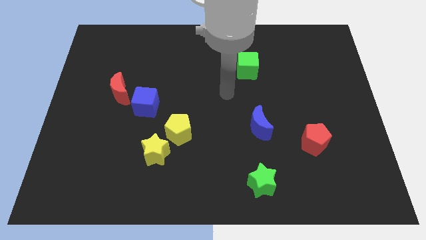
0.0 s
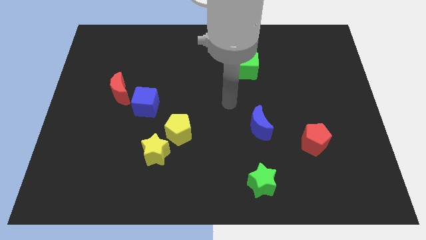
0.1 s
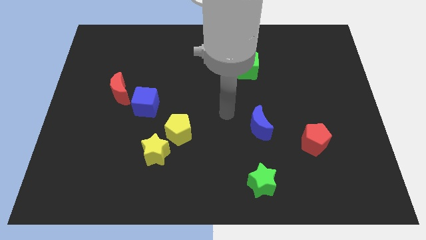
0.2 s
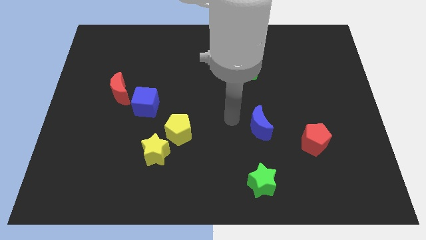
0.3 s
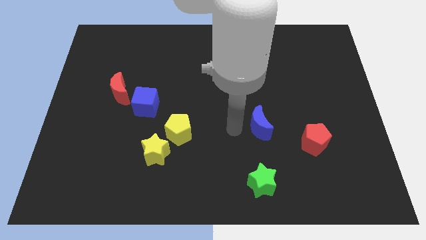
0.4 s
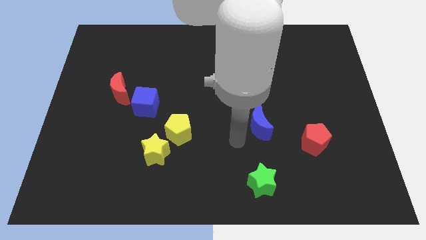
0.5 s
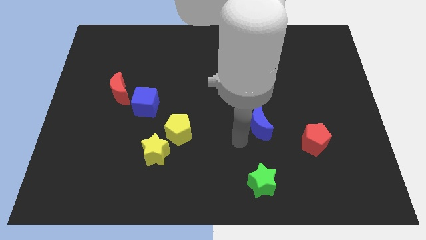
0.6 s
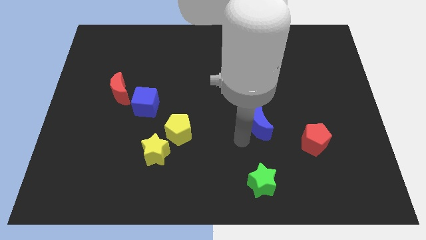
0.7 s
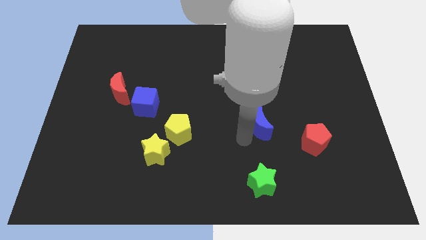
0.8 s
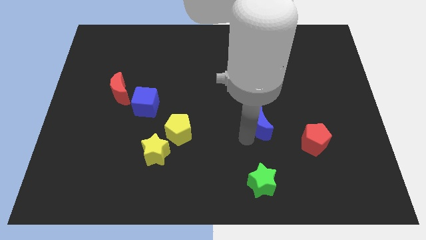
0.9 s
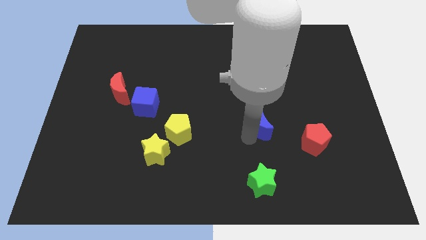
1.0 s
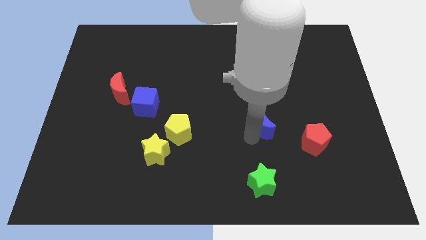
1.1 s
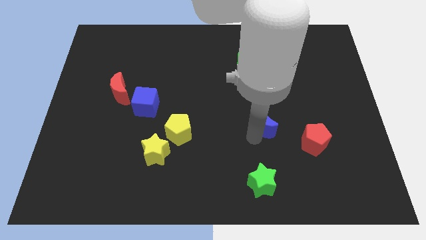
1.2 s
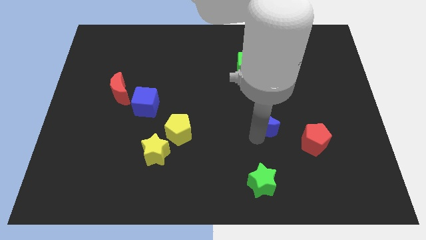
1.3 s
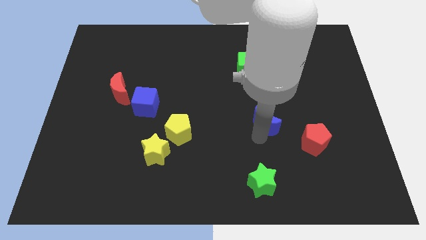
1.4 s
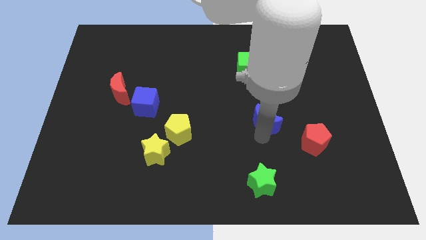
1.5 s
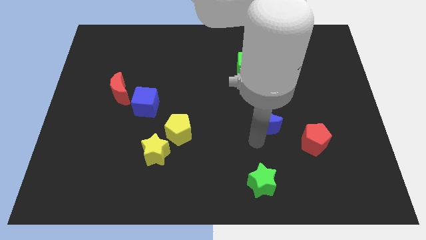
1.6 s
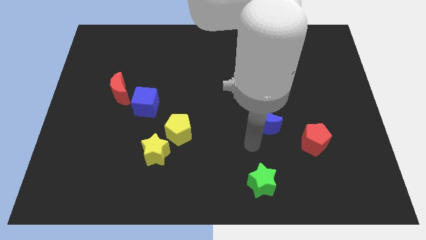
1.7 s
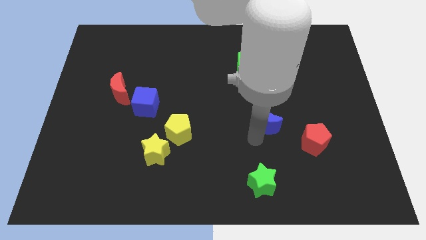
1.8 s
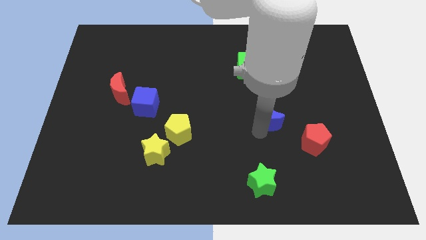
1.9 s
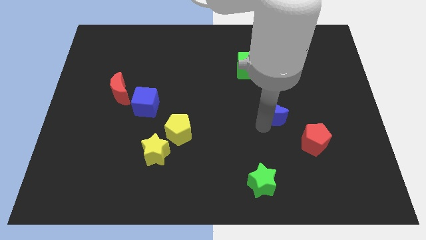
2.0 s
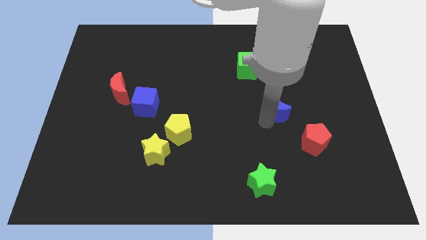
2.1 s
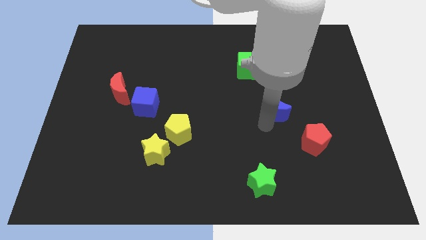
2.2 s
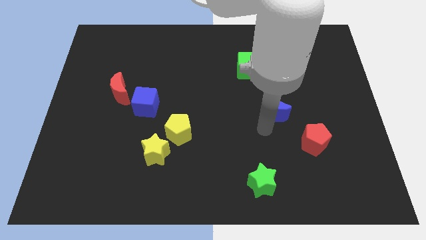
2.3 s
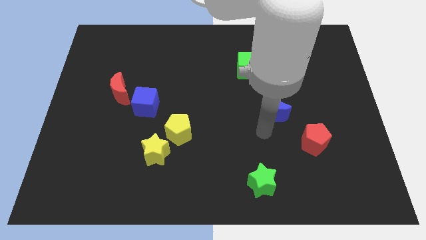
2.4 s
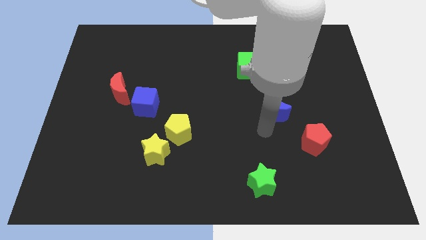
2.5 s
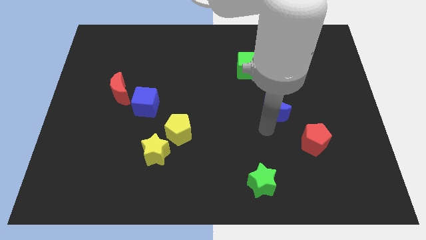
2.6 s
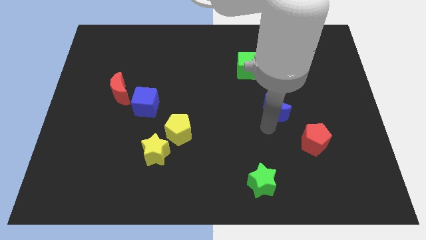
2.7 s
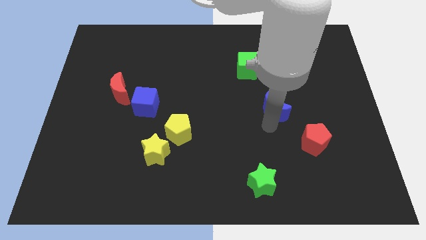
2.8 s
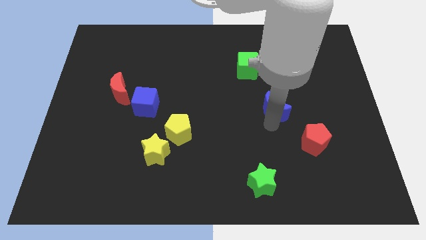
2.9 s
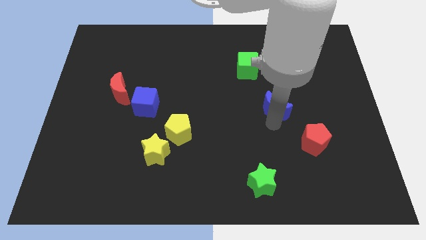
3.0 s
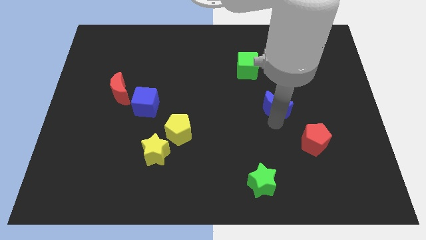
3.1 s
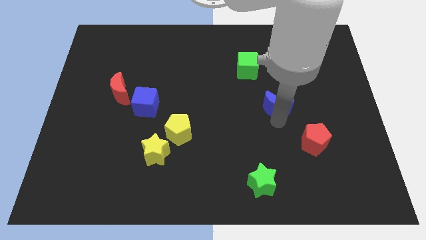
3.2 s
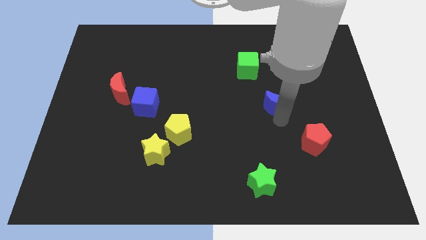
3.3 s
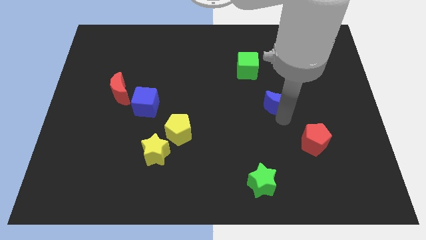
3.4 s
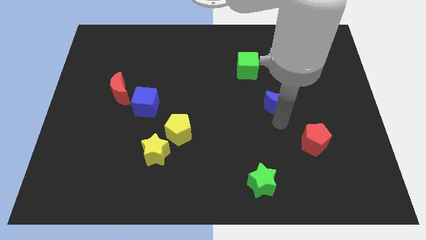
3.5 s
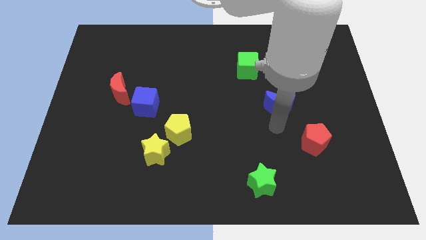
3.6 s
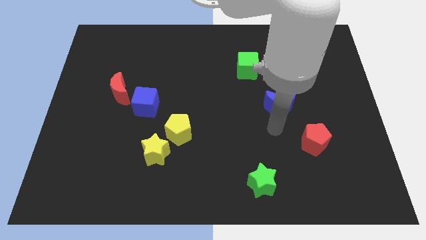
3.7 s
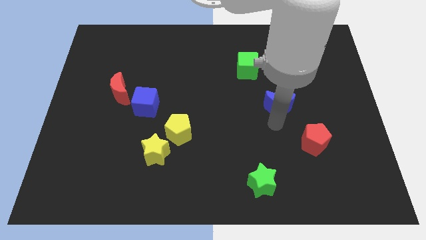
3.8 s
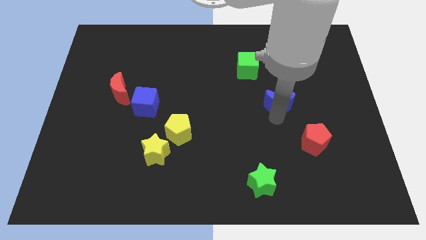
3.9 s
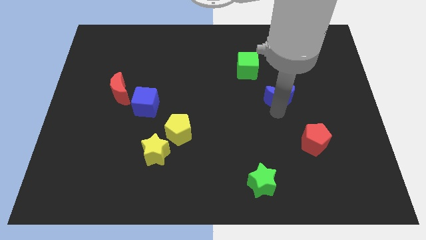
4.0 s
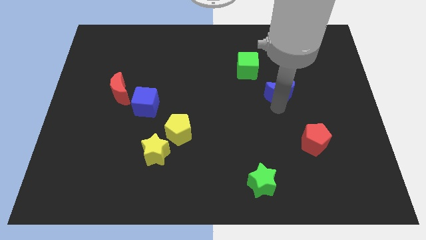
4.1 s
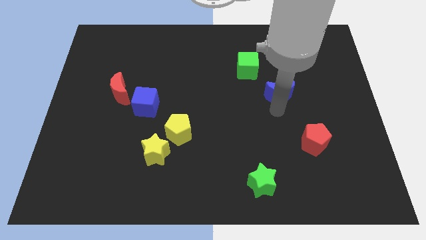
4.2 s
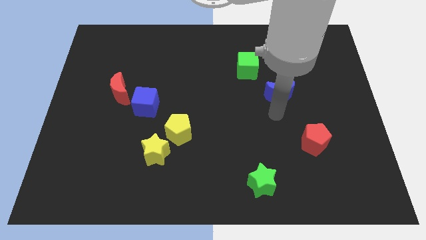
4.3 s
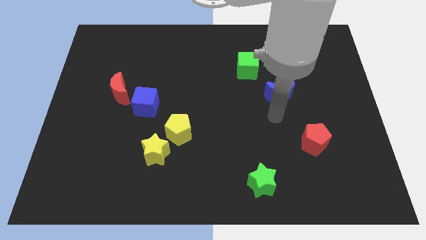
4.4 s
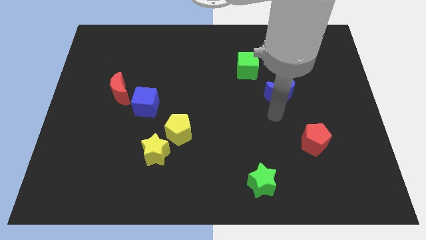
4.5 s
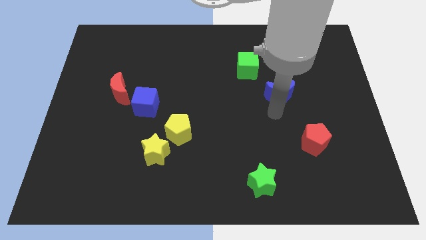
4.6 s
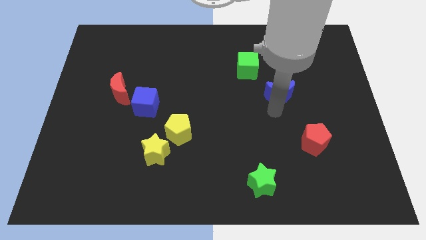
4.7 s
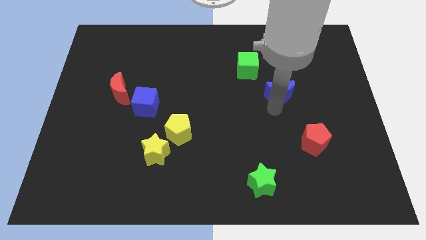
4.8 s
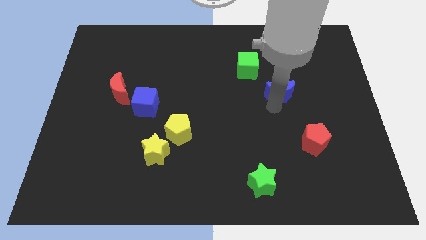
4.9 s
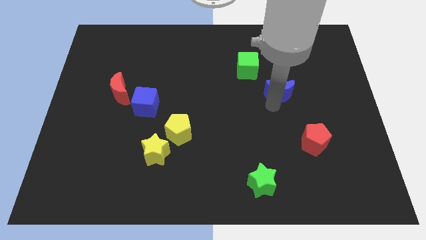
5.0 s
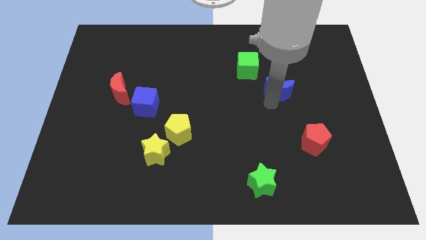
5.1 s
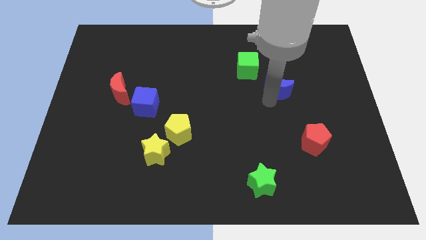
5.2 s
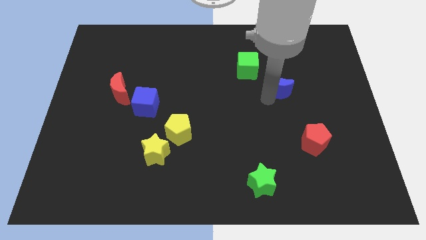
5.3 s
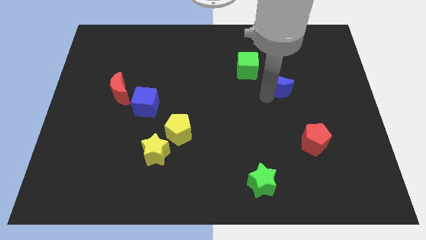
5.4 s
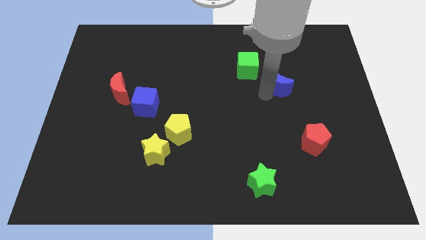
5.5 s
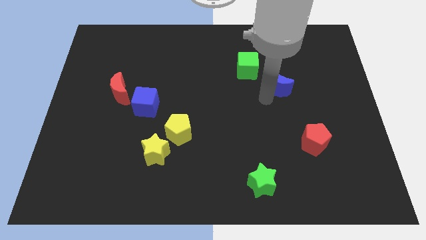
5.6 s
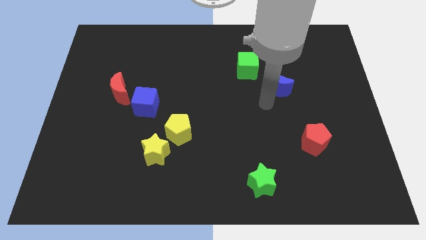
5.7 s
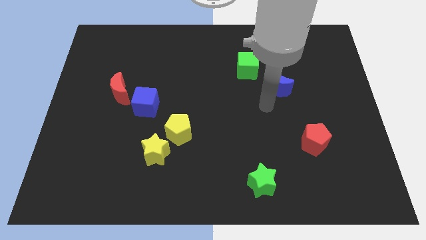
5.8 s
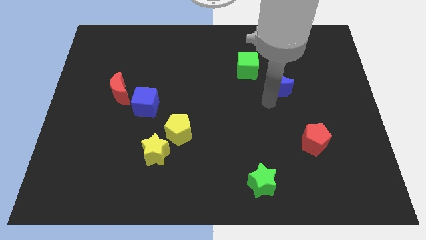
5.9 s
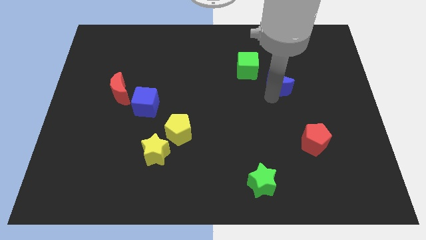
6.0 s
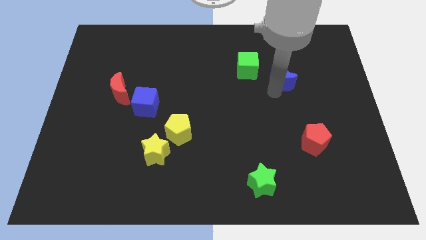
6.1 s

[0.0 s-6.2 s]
put the blue moon to the right of the green cube

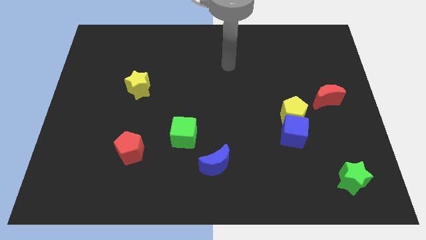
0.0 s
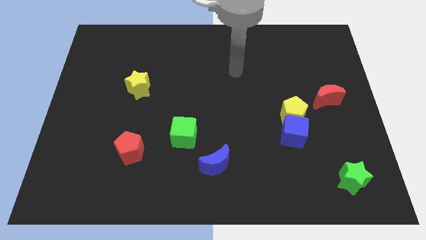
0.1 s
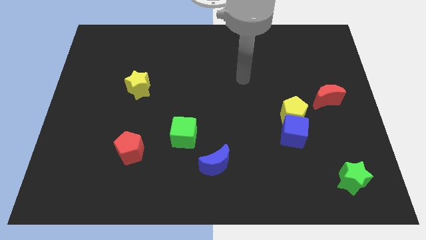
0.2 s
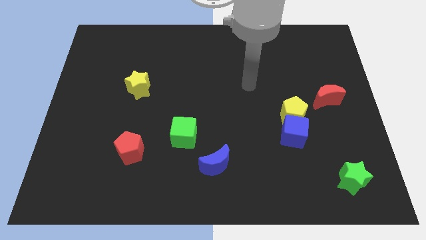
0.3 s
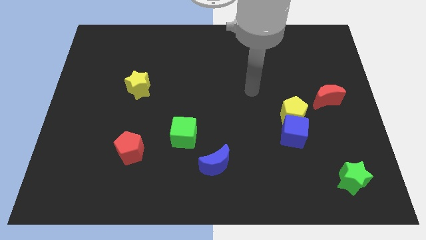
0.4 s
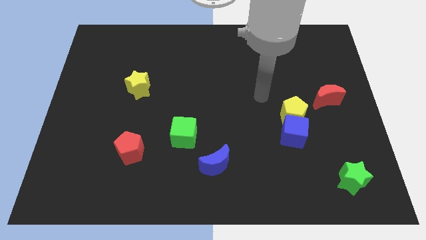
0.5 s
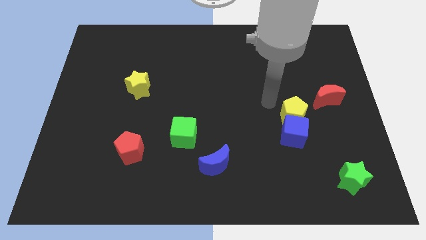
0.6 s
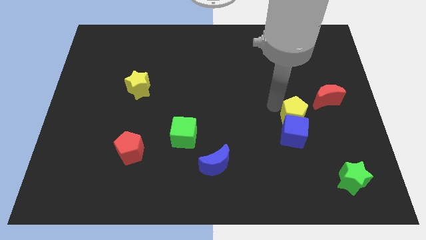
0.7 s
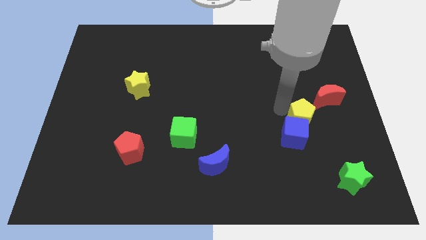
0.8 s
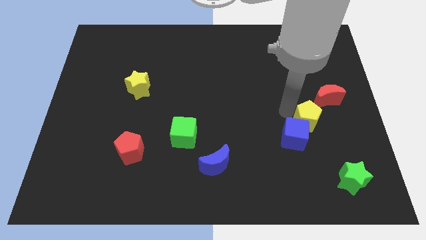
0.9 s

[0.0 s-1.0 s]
slide the yellow pentagon right of the blue cube
